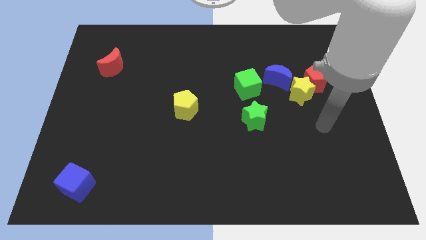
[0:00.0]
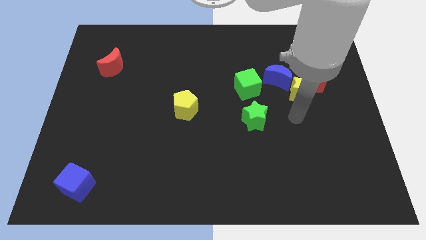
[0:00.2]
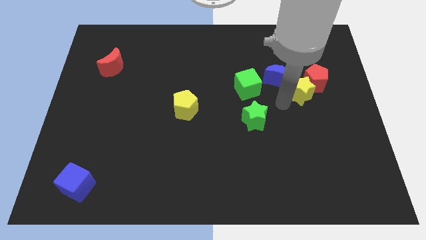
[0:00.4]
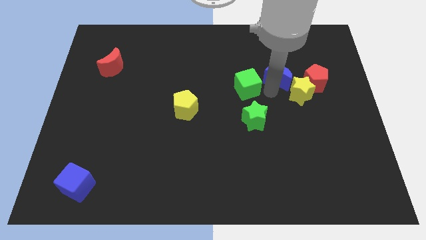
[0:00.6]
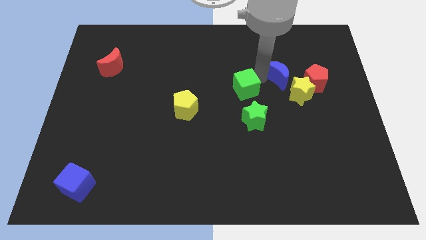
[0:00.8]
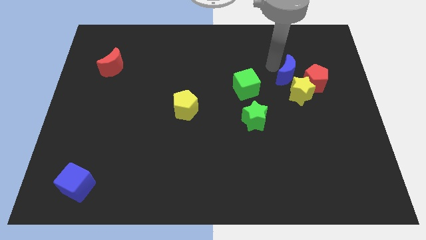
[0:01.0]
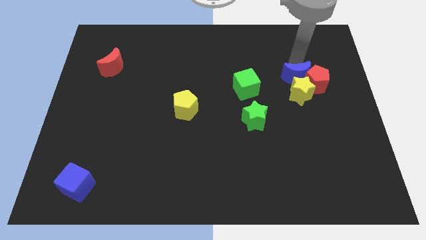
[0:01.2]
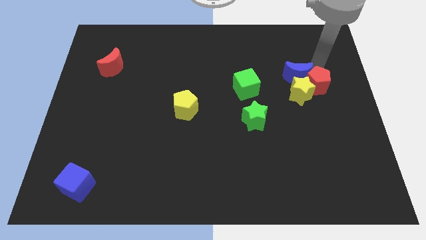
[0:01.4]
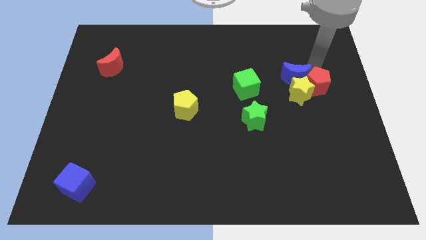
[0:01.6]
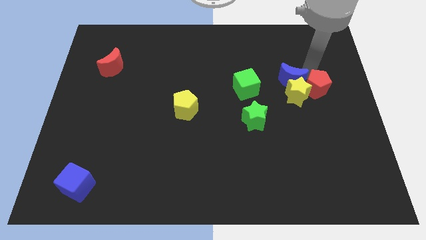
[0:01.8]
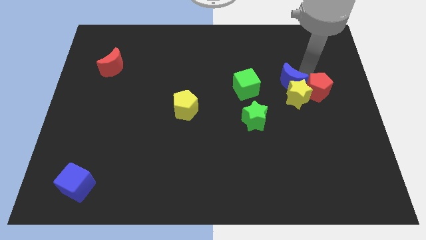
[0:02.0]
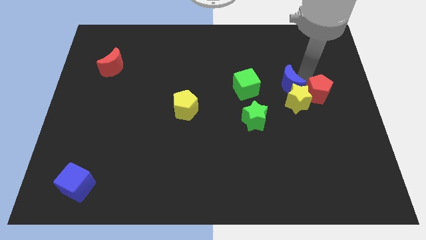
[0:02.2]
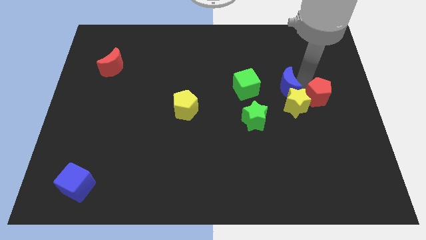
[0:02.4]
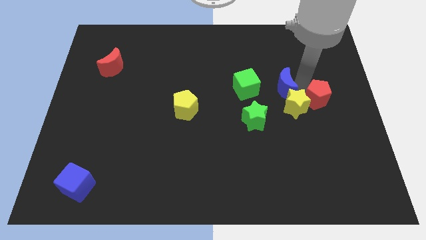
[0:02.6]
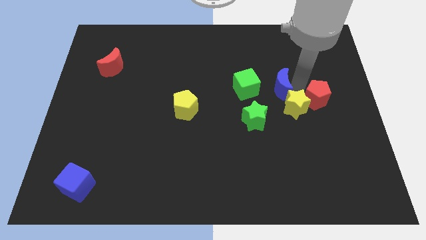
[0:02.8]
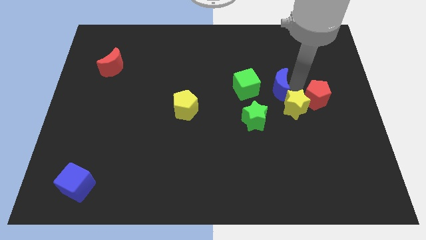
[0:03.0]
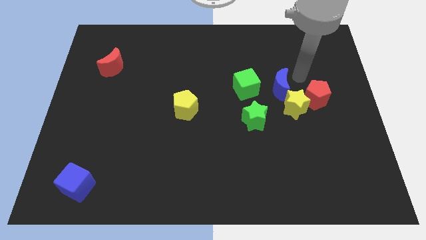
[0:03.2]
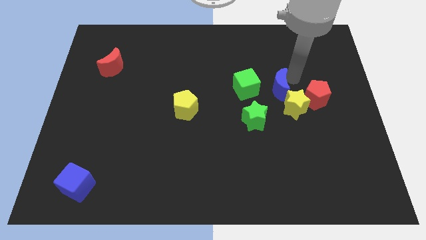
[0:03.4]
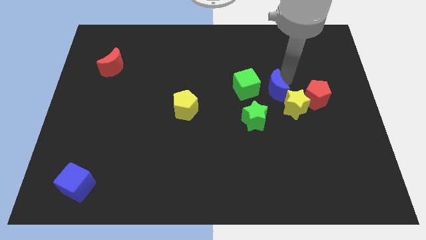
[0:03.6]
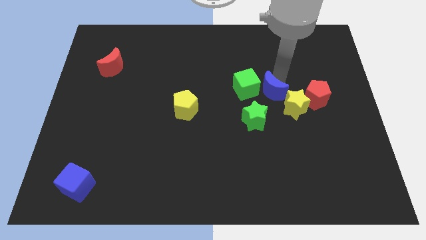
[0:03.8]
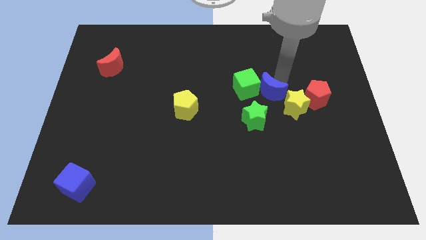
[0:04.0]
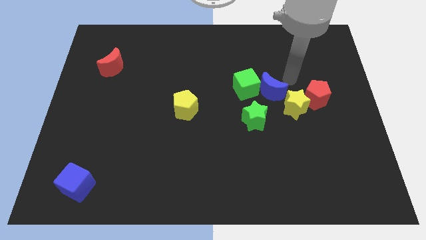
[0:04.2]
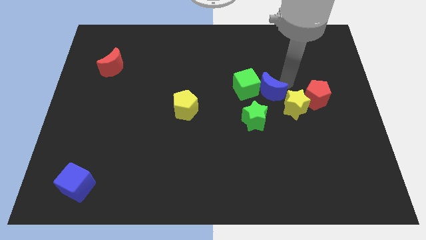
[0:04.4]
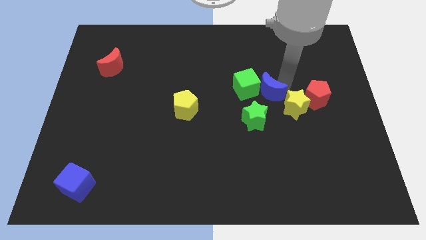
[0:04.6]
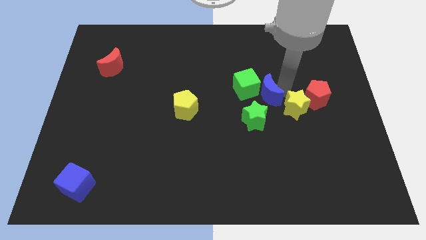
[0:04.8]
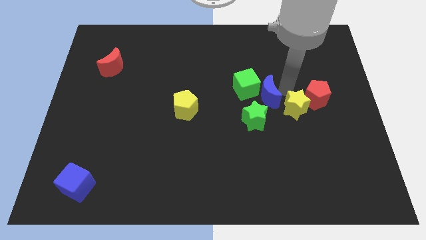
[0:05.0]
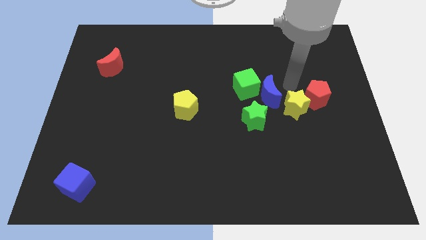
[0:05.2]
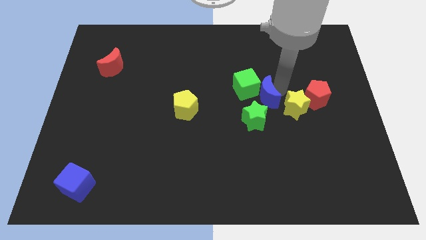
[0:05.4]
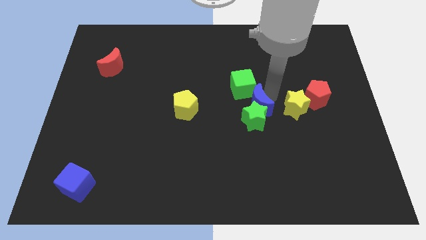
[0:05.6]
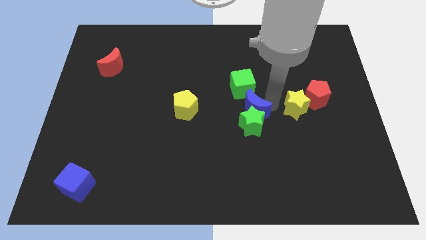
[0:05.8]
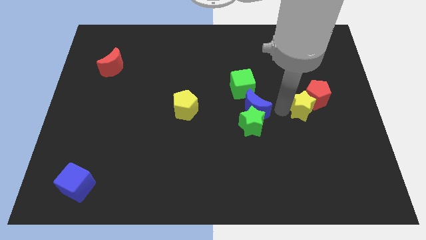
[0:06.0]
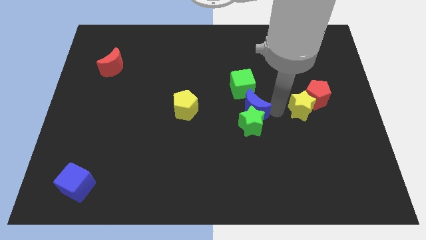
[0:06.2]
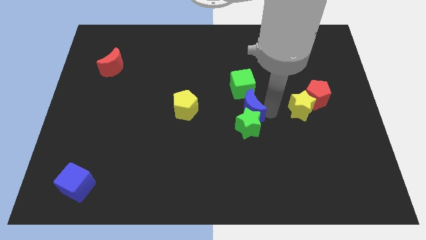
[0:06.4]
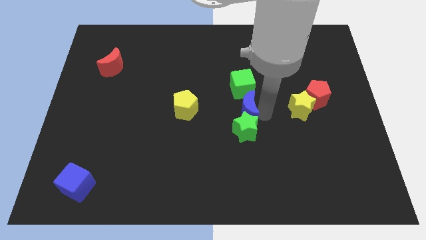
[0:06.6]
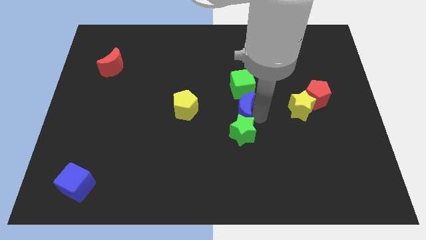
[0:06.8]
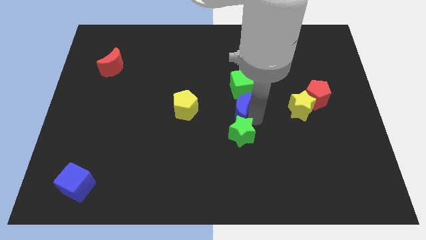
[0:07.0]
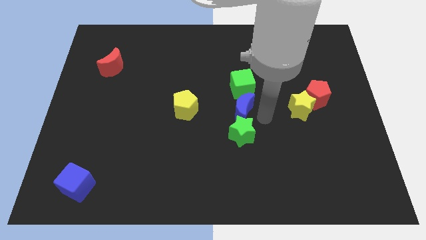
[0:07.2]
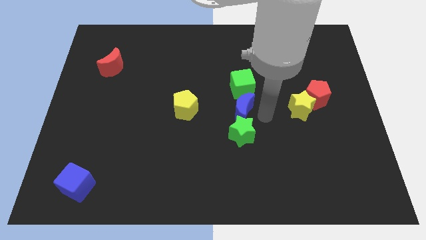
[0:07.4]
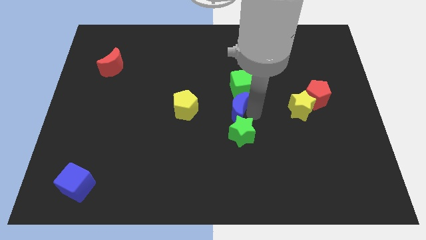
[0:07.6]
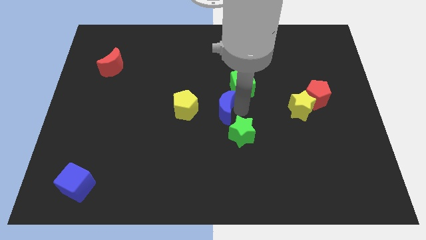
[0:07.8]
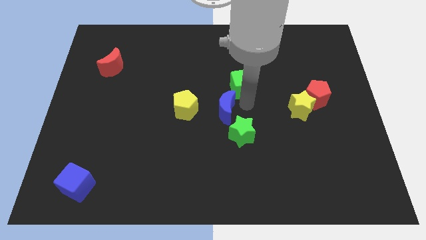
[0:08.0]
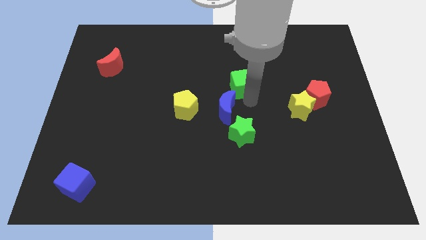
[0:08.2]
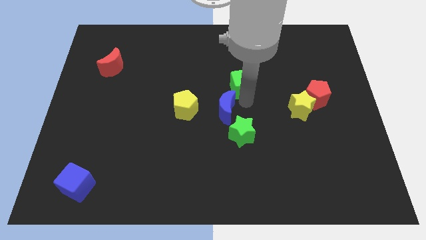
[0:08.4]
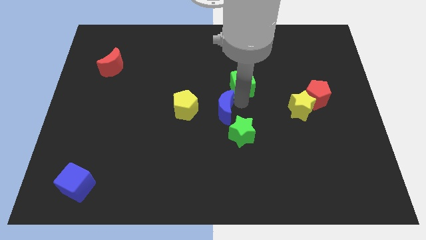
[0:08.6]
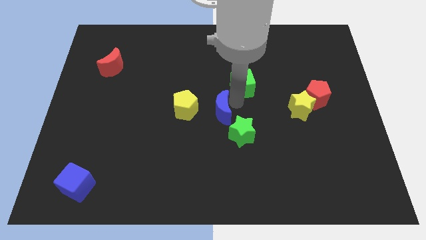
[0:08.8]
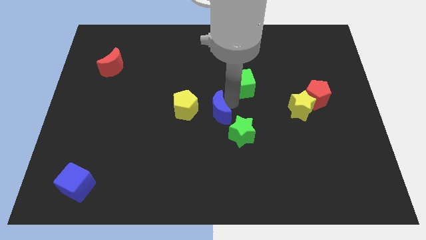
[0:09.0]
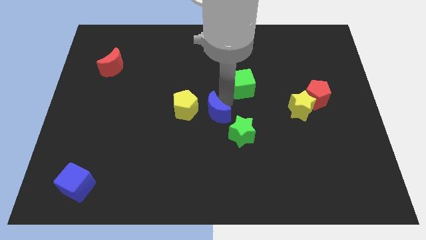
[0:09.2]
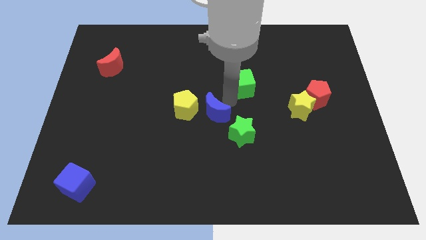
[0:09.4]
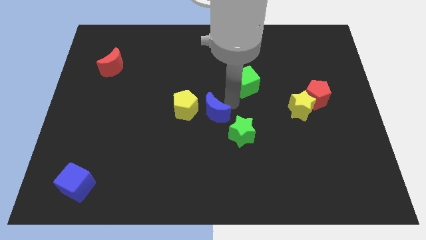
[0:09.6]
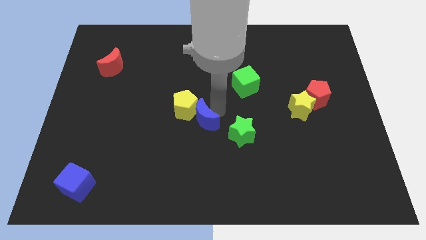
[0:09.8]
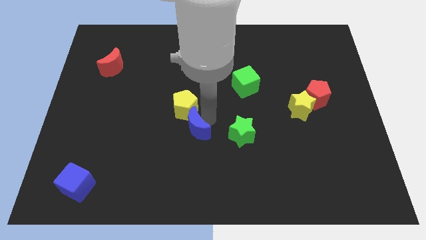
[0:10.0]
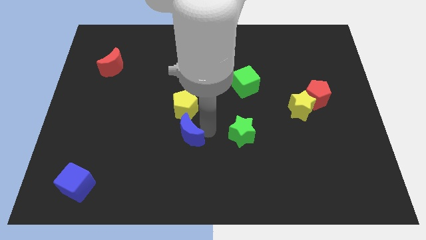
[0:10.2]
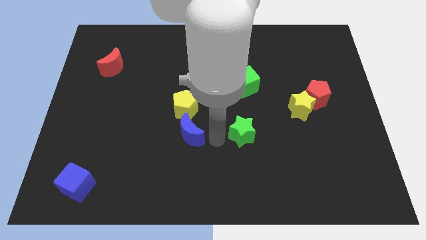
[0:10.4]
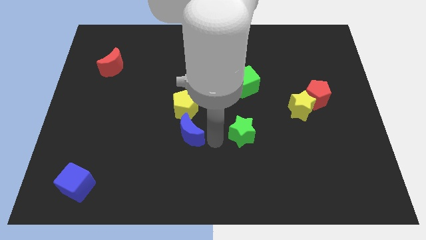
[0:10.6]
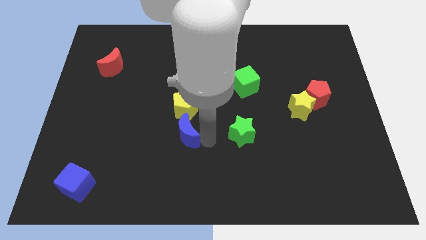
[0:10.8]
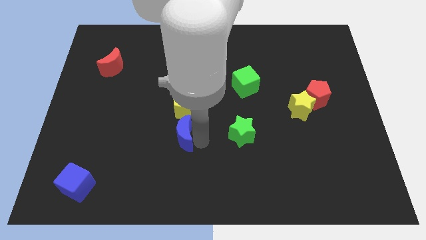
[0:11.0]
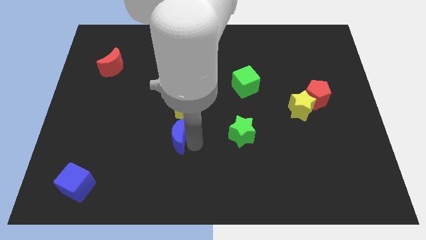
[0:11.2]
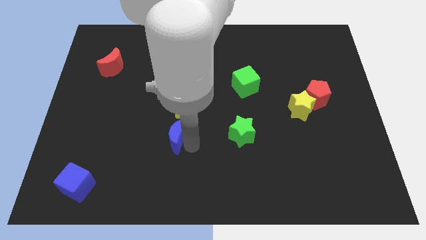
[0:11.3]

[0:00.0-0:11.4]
put the blue moon to the bottom left side of the yellow pentagon

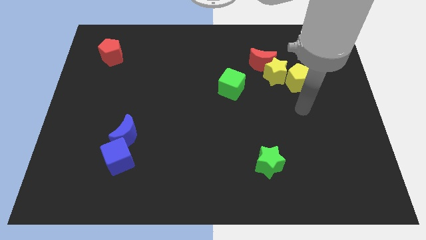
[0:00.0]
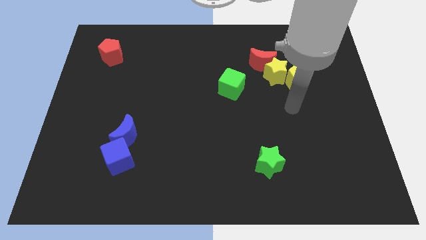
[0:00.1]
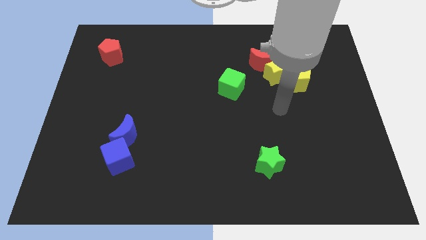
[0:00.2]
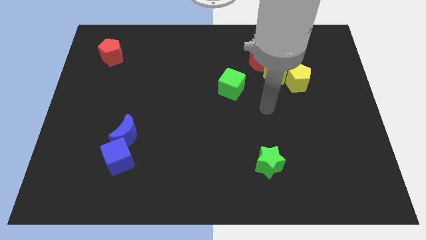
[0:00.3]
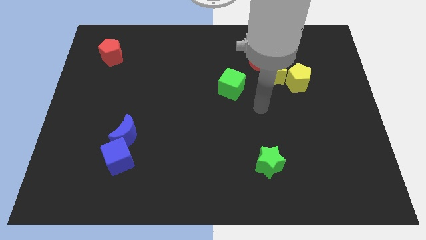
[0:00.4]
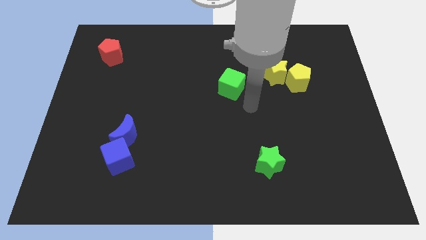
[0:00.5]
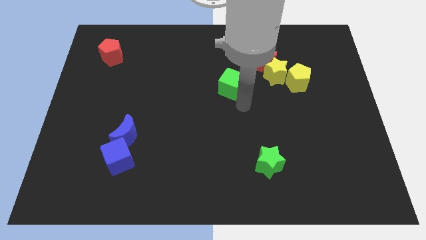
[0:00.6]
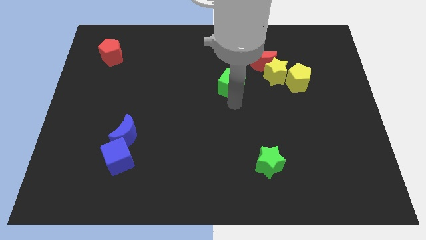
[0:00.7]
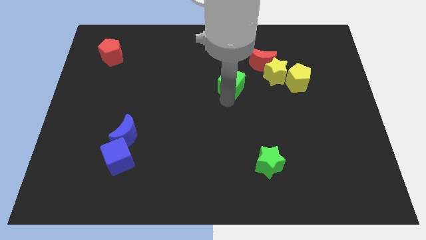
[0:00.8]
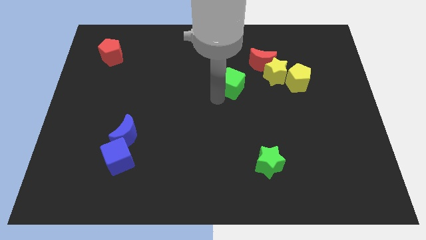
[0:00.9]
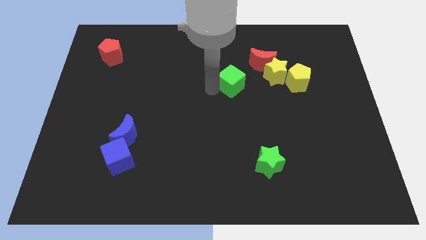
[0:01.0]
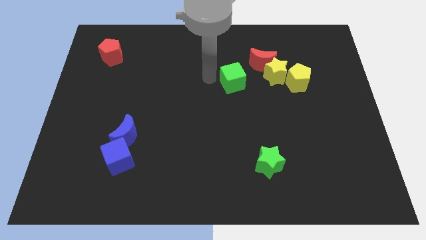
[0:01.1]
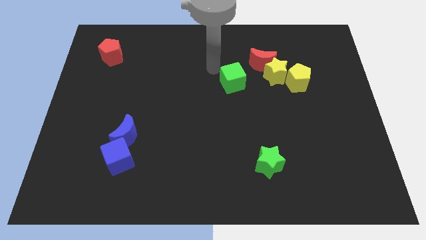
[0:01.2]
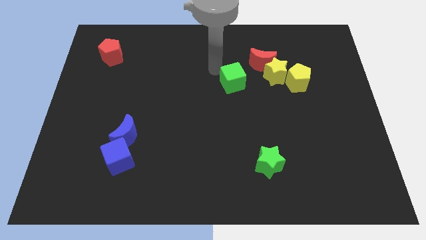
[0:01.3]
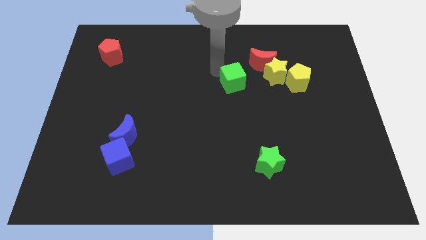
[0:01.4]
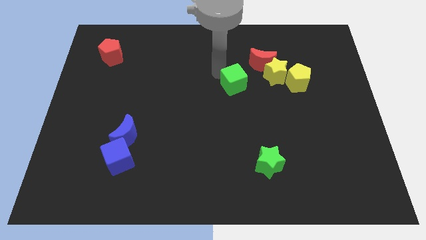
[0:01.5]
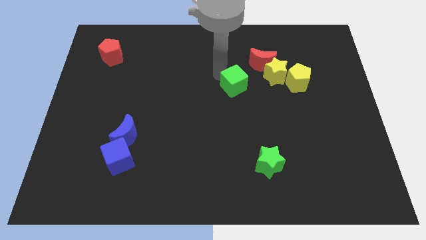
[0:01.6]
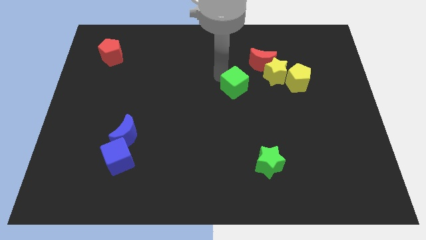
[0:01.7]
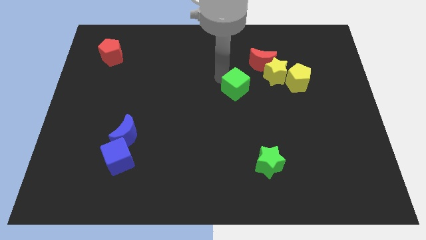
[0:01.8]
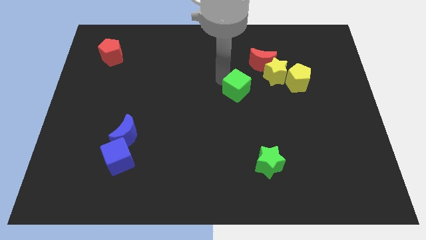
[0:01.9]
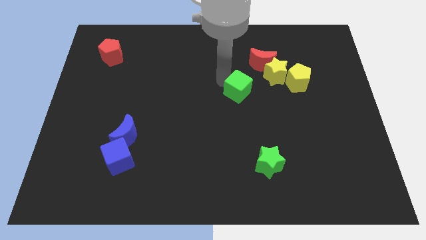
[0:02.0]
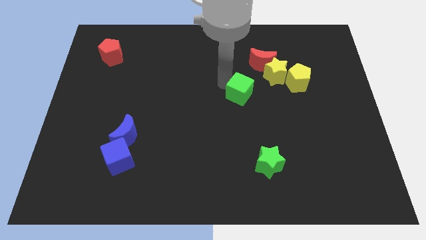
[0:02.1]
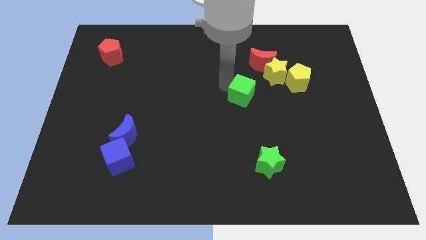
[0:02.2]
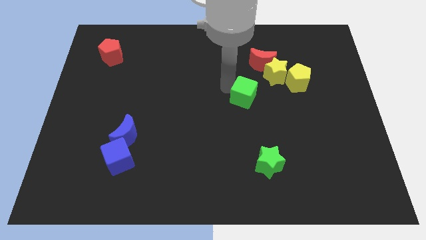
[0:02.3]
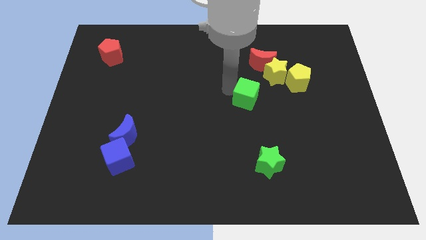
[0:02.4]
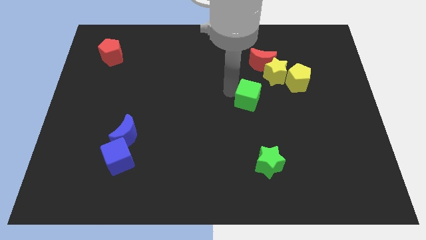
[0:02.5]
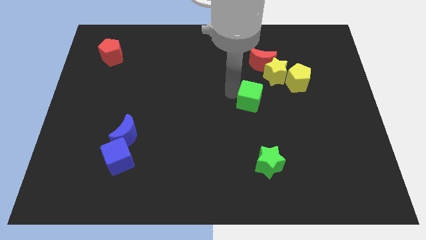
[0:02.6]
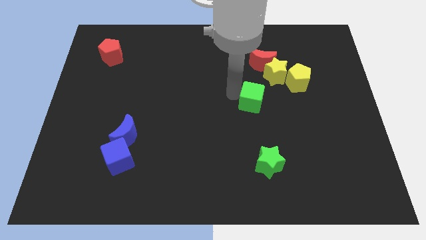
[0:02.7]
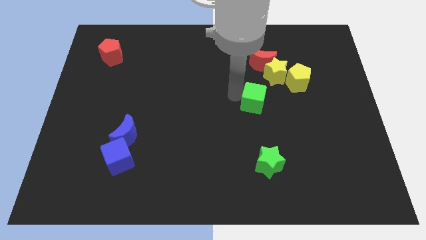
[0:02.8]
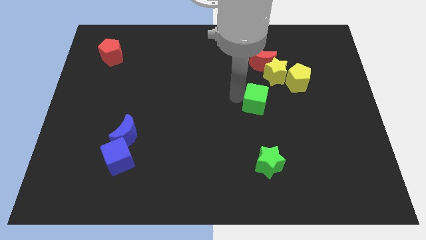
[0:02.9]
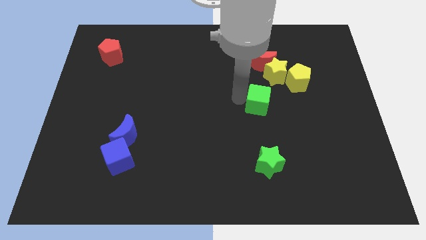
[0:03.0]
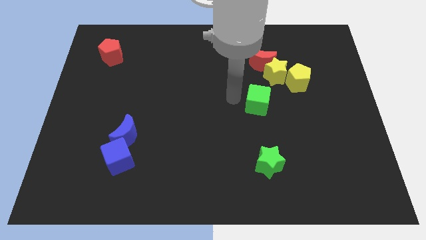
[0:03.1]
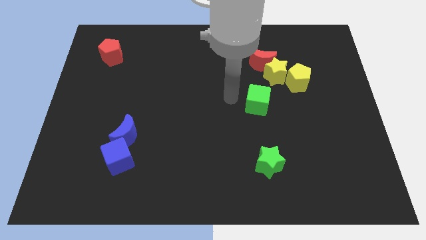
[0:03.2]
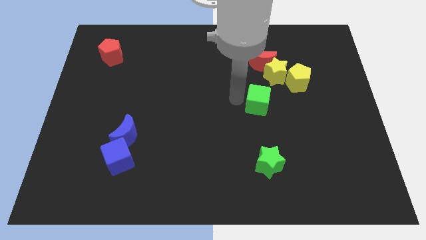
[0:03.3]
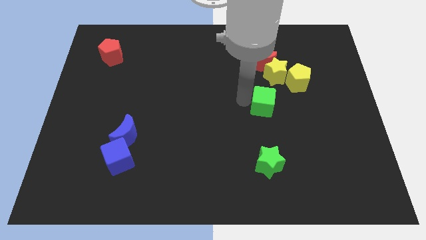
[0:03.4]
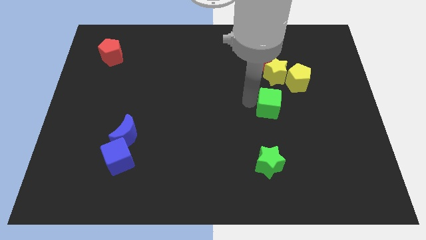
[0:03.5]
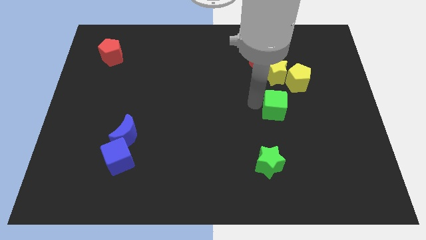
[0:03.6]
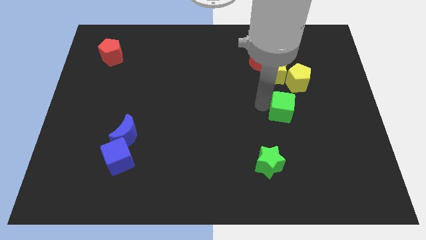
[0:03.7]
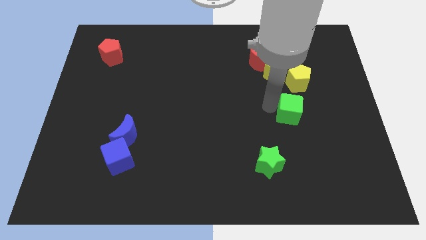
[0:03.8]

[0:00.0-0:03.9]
slide the green cube to the bottom side of the yellow pentagon
